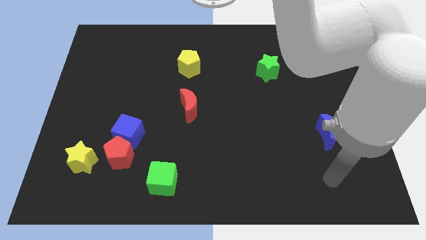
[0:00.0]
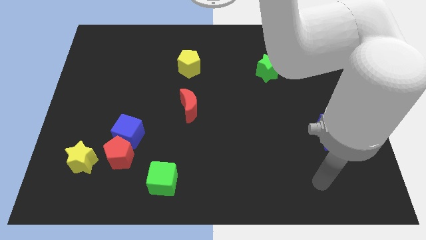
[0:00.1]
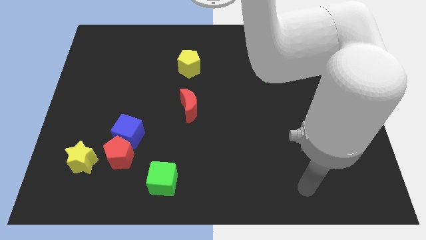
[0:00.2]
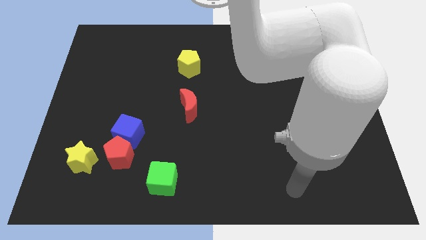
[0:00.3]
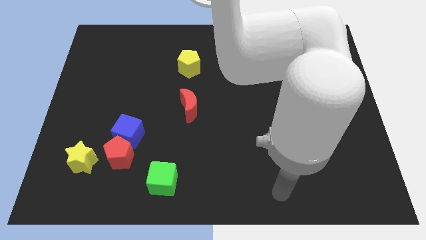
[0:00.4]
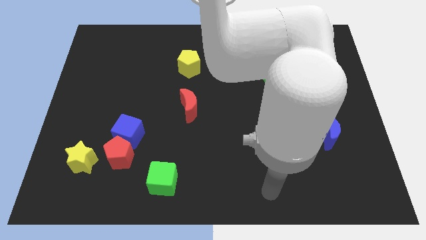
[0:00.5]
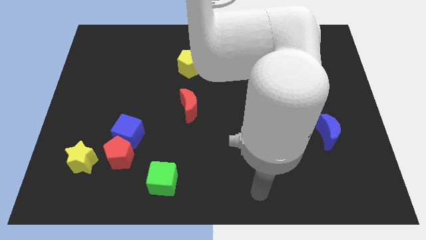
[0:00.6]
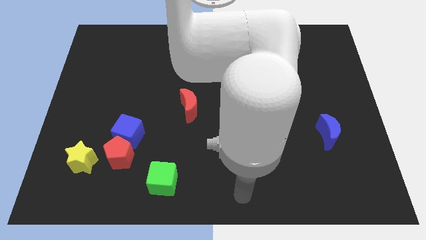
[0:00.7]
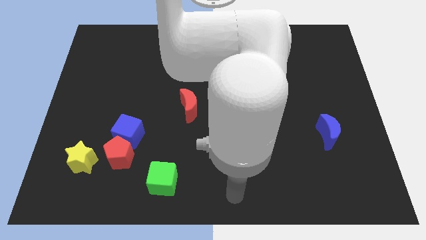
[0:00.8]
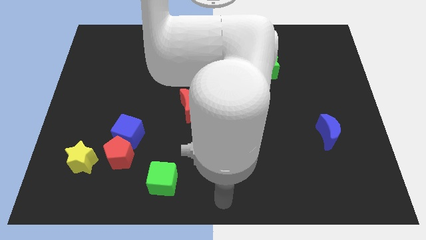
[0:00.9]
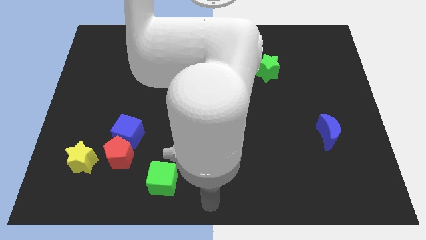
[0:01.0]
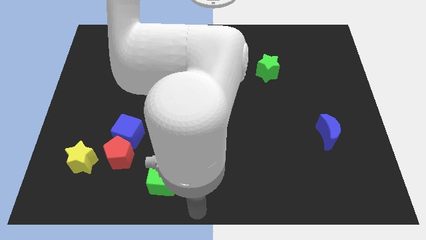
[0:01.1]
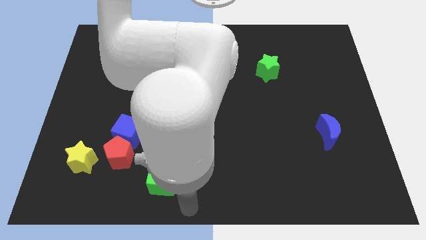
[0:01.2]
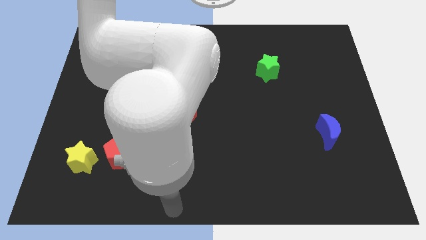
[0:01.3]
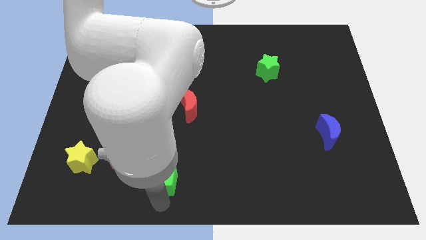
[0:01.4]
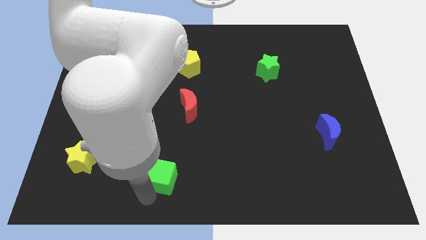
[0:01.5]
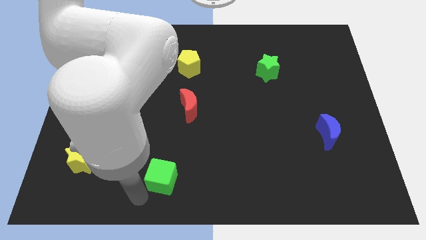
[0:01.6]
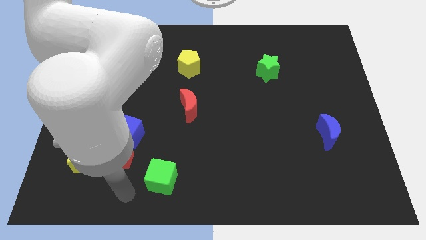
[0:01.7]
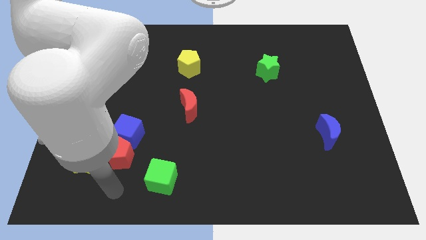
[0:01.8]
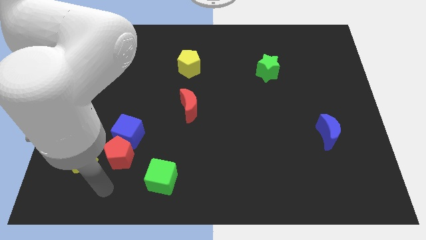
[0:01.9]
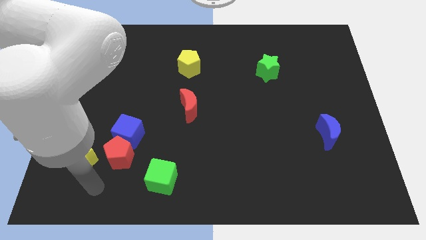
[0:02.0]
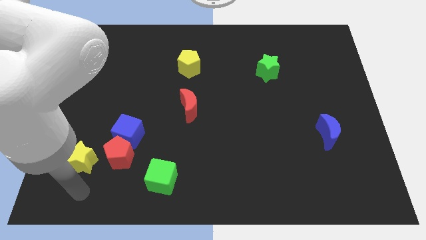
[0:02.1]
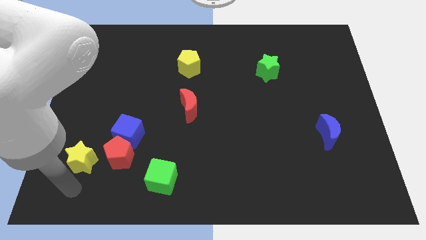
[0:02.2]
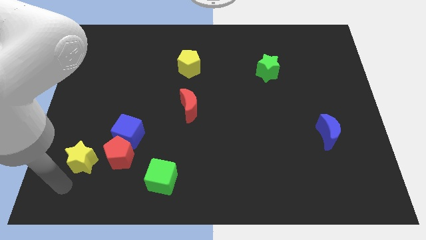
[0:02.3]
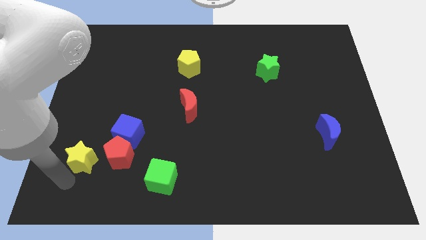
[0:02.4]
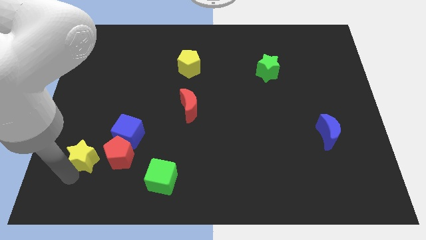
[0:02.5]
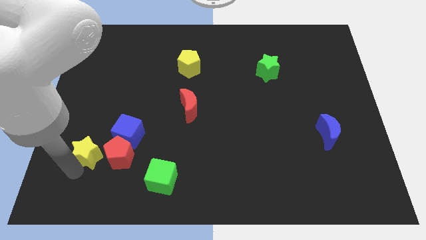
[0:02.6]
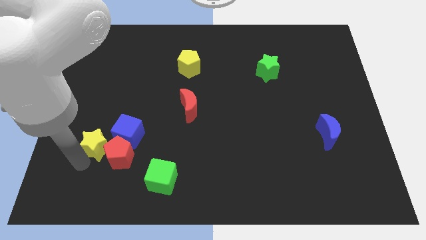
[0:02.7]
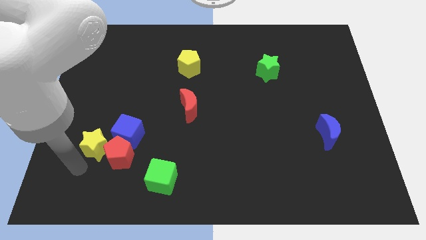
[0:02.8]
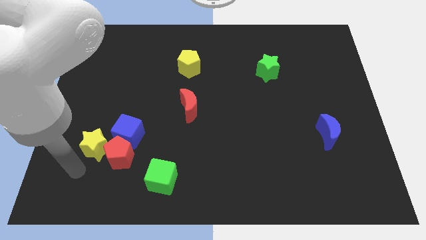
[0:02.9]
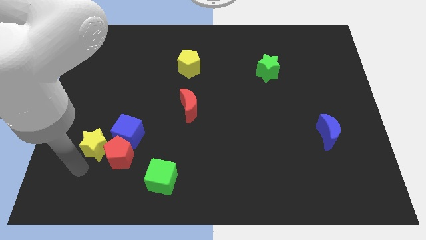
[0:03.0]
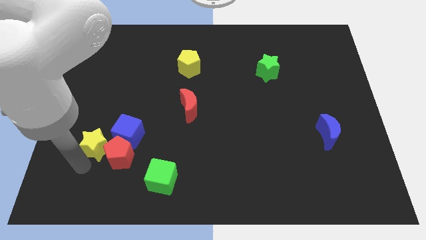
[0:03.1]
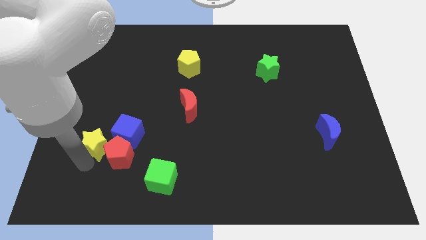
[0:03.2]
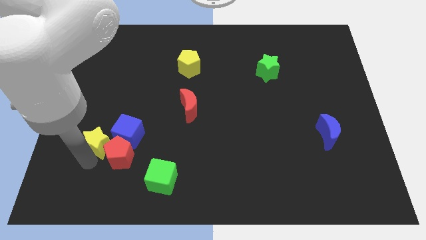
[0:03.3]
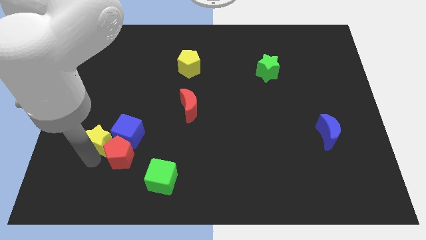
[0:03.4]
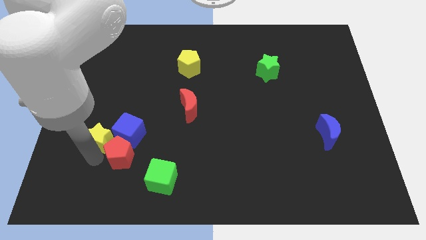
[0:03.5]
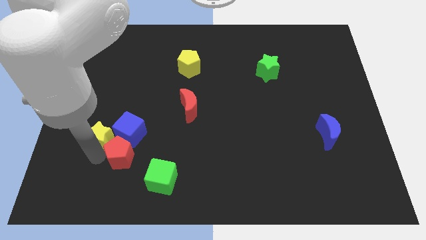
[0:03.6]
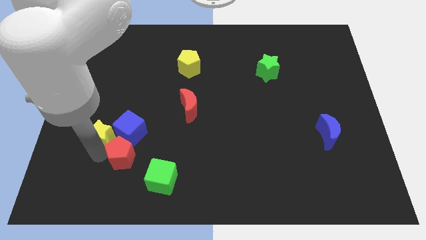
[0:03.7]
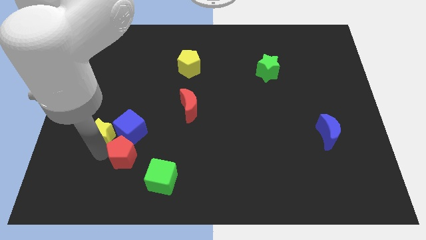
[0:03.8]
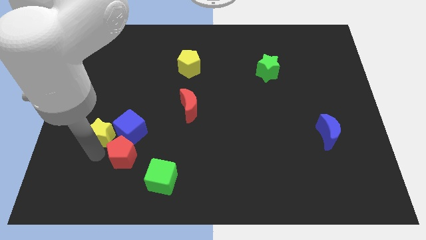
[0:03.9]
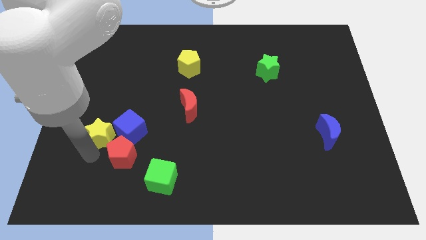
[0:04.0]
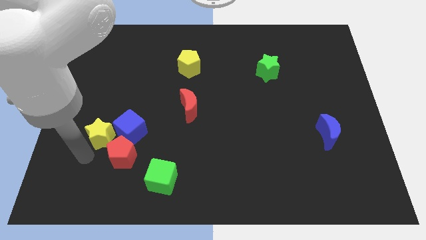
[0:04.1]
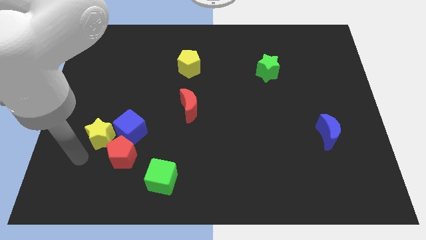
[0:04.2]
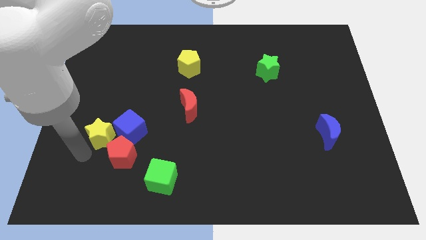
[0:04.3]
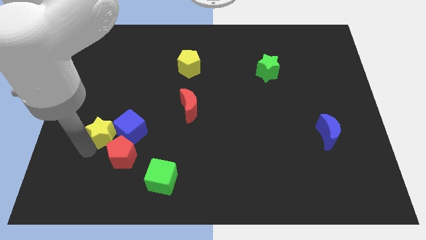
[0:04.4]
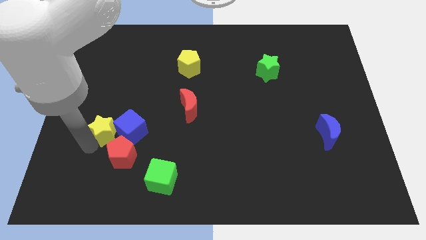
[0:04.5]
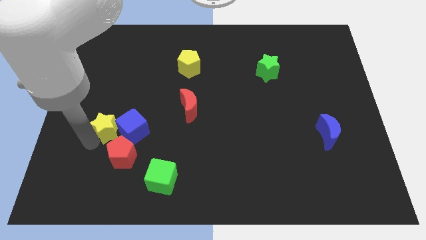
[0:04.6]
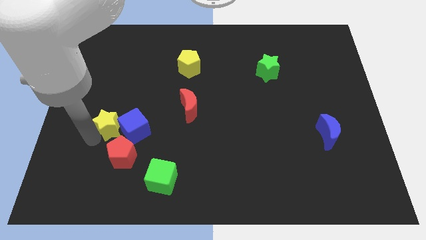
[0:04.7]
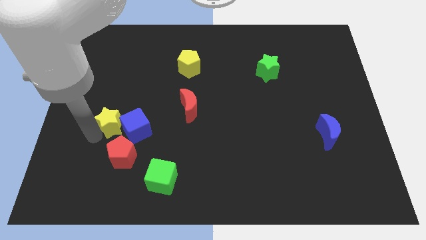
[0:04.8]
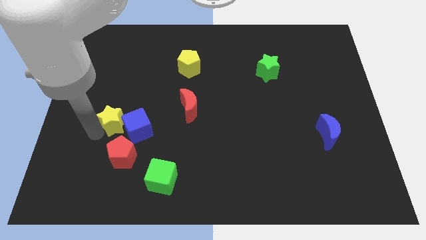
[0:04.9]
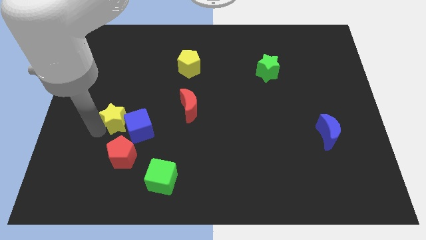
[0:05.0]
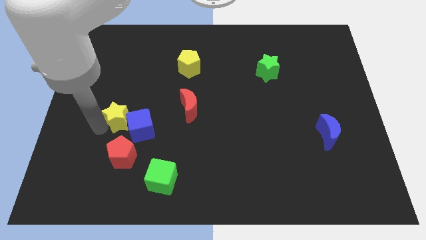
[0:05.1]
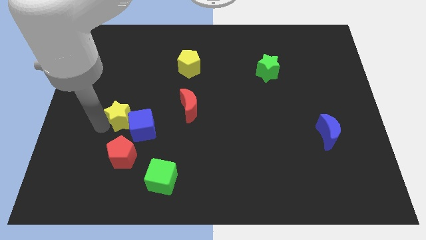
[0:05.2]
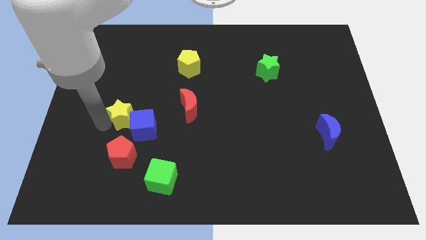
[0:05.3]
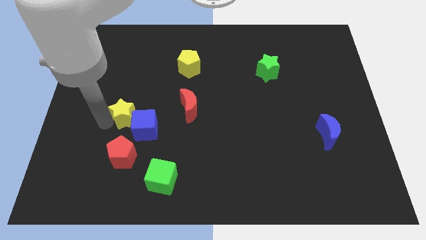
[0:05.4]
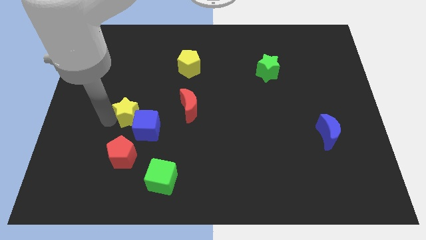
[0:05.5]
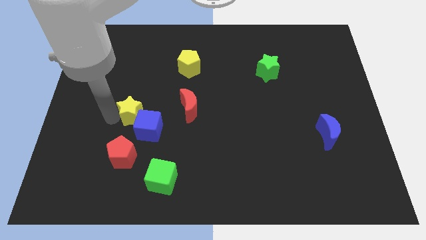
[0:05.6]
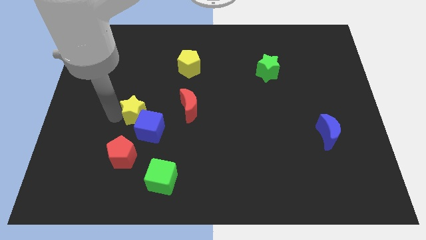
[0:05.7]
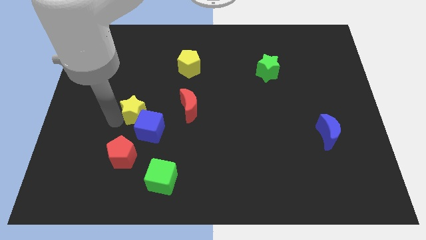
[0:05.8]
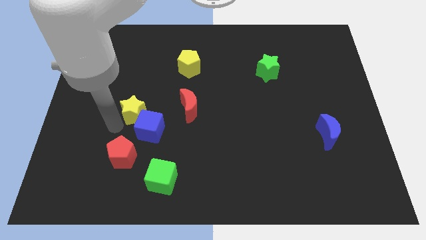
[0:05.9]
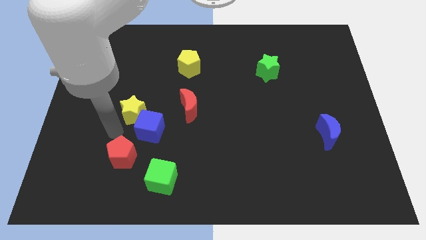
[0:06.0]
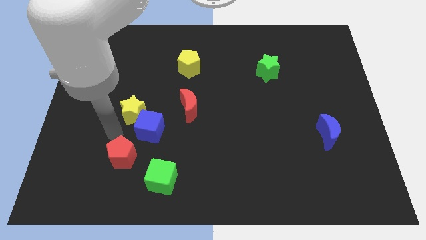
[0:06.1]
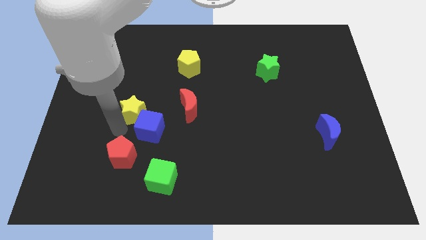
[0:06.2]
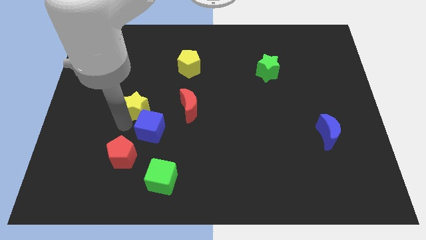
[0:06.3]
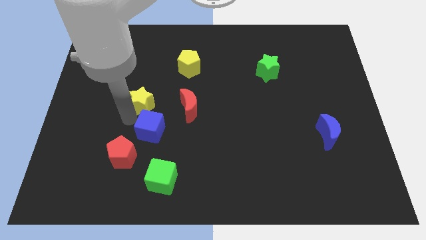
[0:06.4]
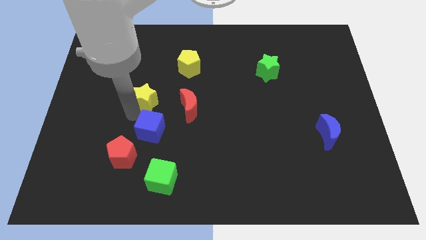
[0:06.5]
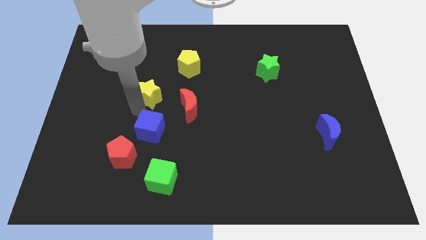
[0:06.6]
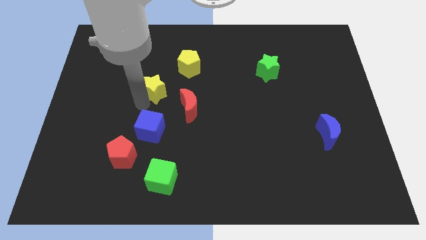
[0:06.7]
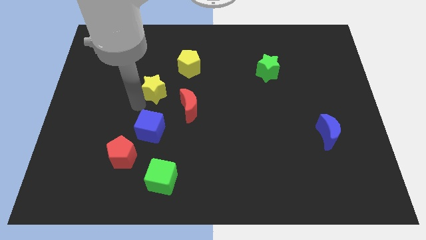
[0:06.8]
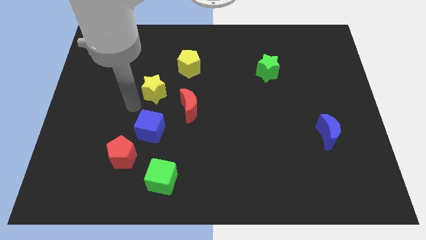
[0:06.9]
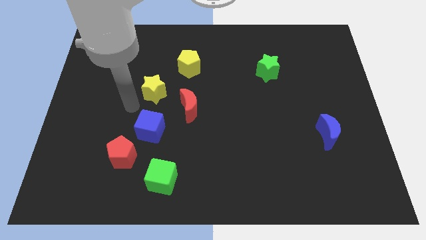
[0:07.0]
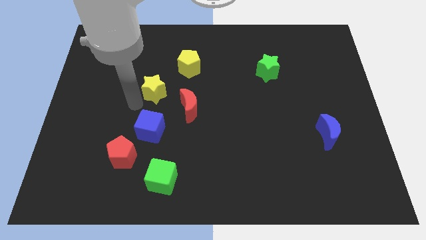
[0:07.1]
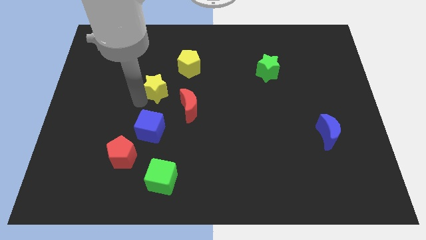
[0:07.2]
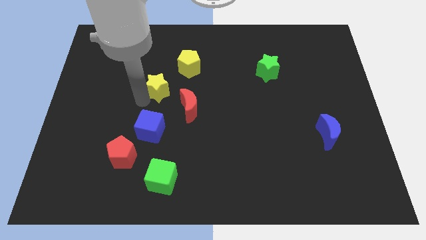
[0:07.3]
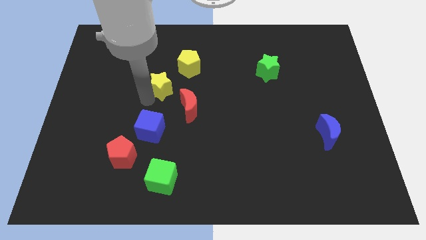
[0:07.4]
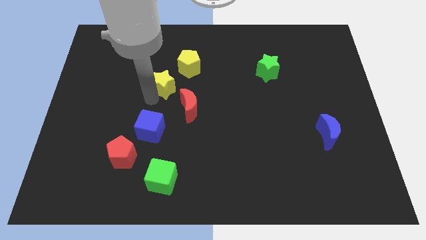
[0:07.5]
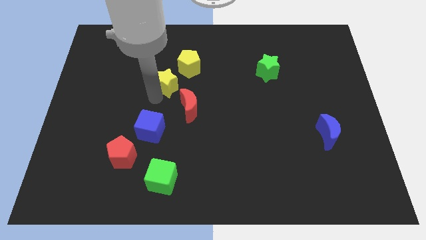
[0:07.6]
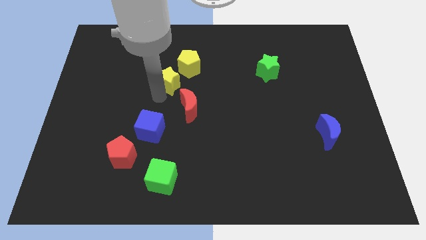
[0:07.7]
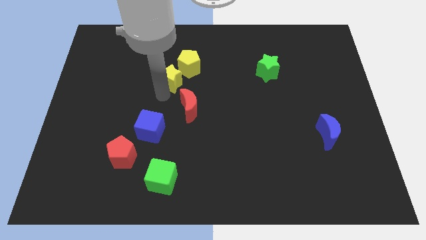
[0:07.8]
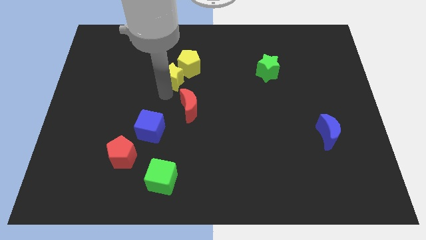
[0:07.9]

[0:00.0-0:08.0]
slide the yellow star to the yellow pentagon
